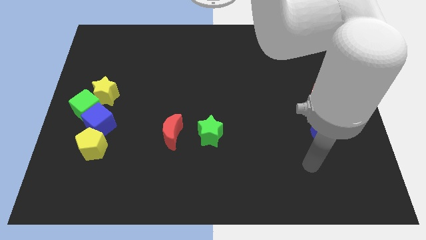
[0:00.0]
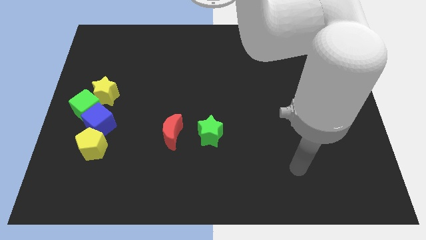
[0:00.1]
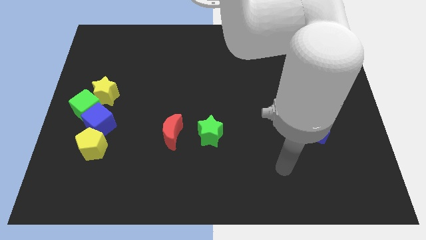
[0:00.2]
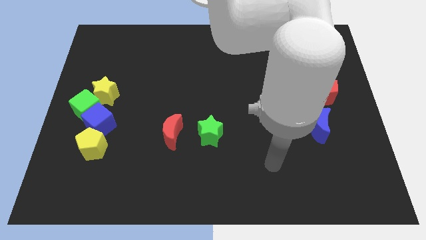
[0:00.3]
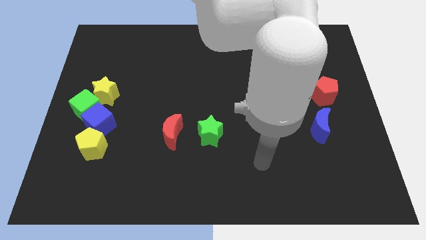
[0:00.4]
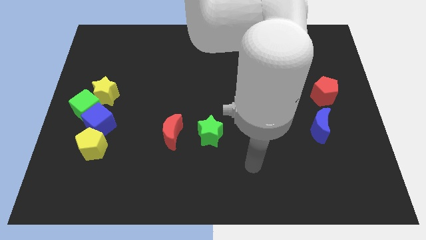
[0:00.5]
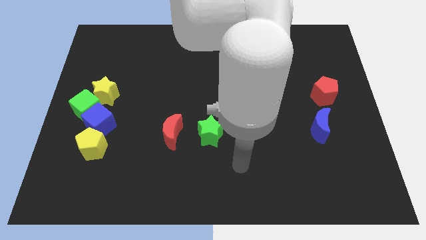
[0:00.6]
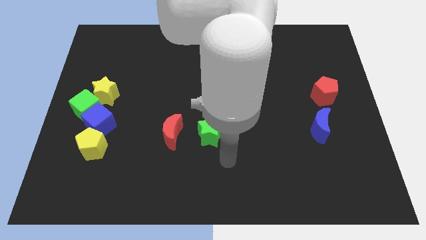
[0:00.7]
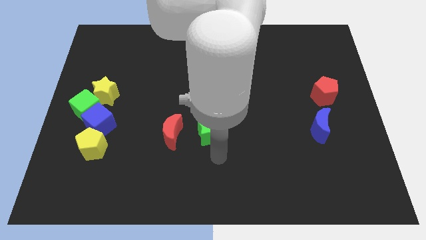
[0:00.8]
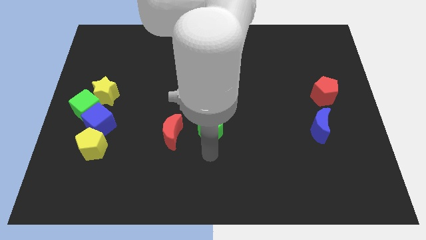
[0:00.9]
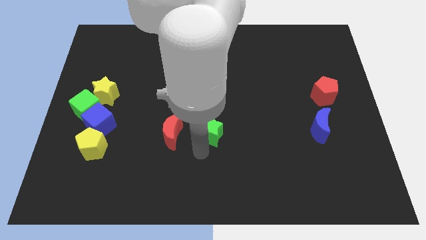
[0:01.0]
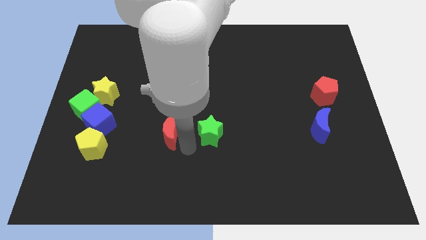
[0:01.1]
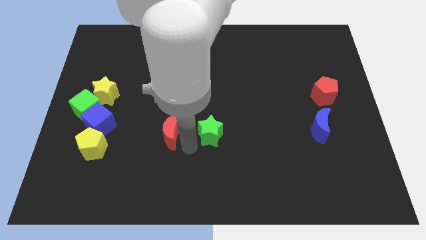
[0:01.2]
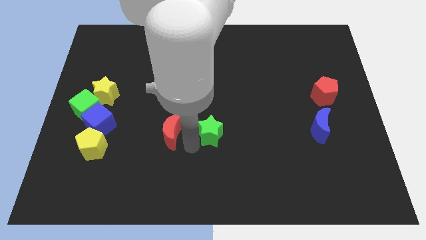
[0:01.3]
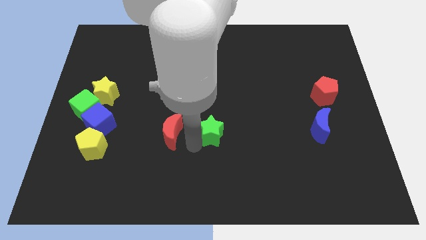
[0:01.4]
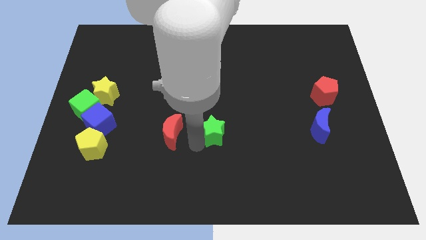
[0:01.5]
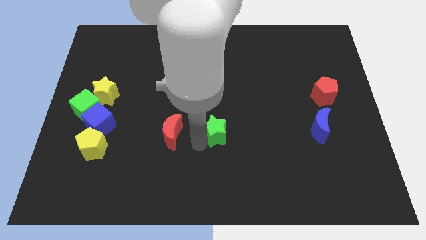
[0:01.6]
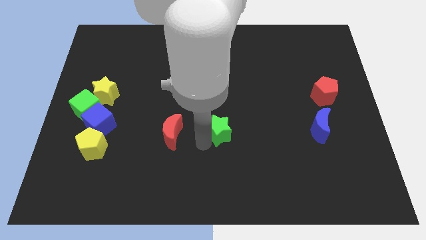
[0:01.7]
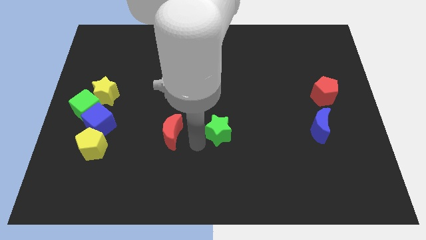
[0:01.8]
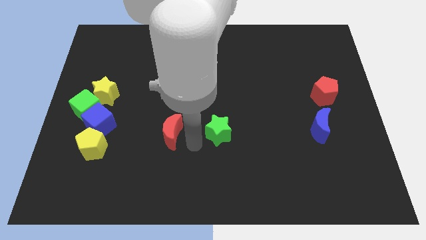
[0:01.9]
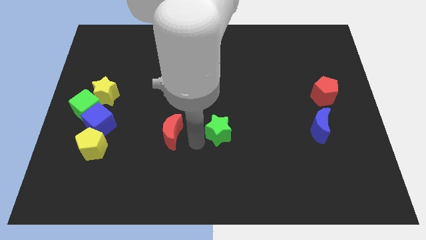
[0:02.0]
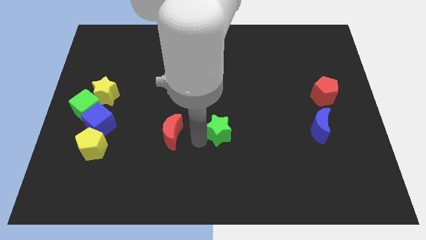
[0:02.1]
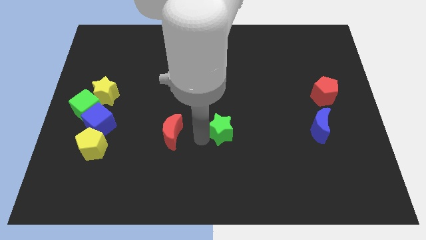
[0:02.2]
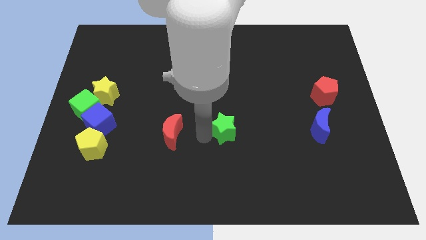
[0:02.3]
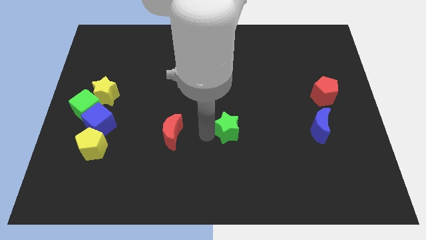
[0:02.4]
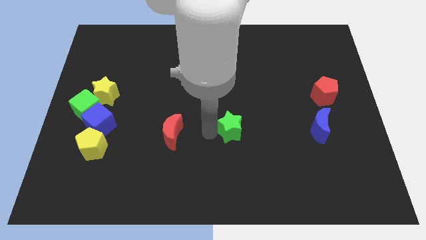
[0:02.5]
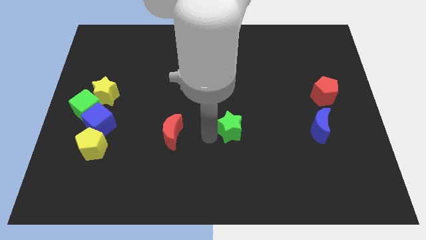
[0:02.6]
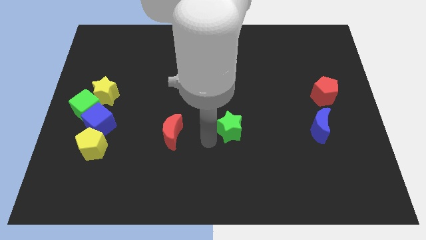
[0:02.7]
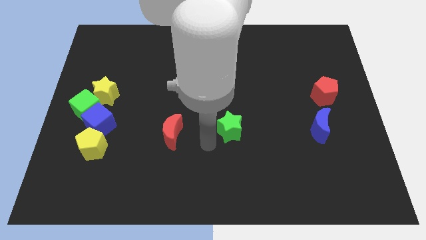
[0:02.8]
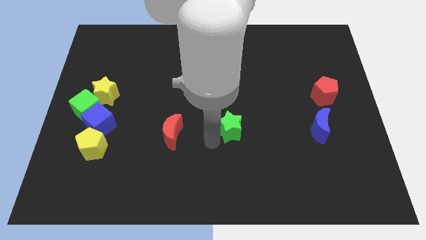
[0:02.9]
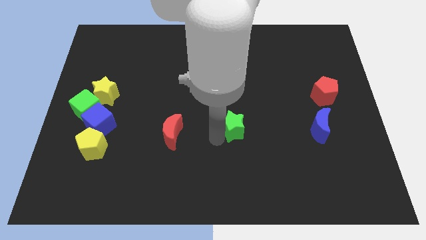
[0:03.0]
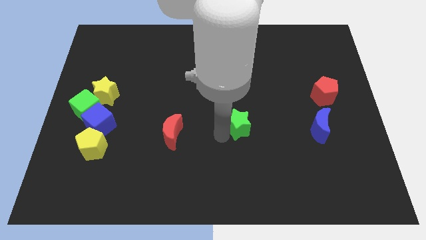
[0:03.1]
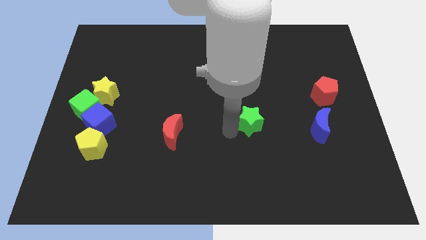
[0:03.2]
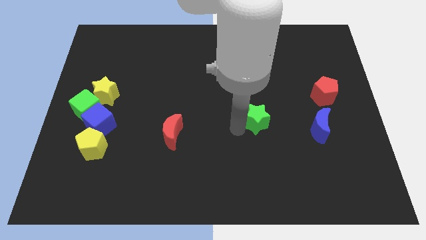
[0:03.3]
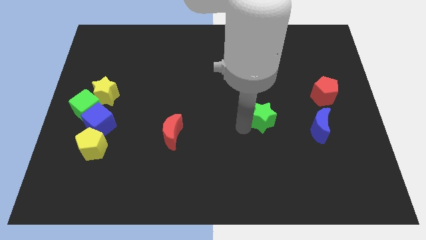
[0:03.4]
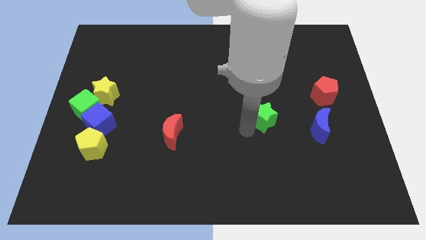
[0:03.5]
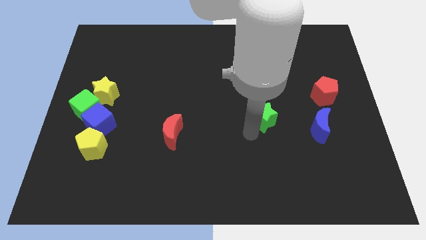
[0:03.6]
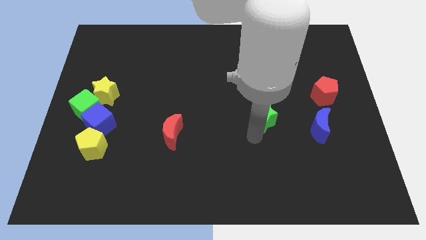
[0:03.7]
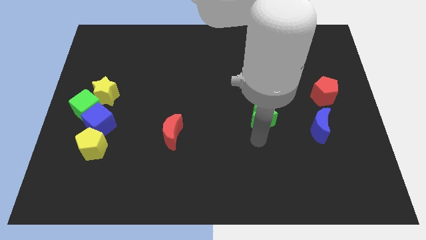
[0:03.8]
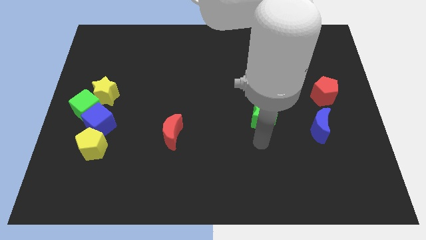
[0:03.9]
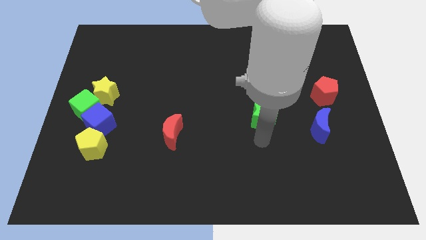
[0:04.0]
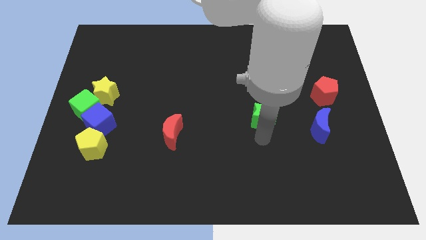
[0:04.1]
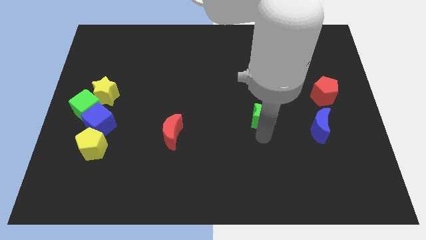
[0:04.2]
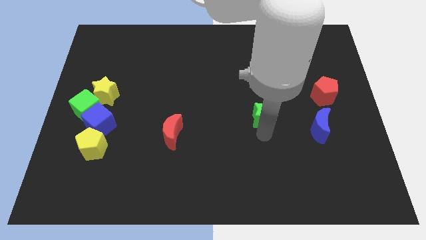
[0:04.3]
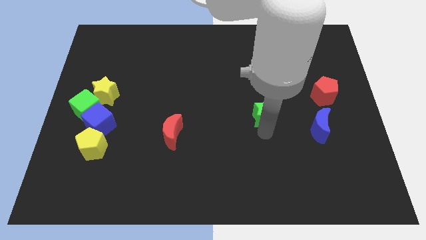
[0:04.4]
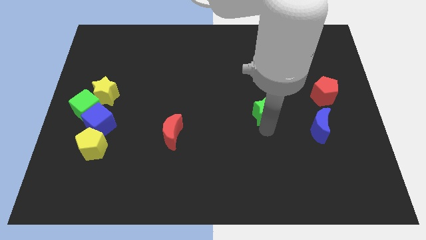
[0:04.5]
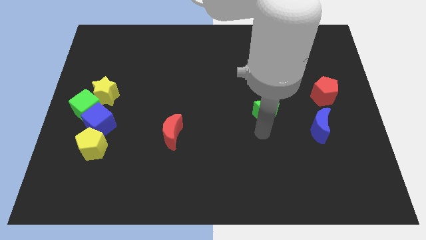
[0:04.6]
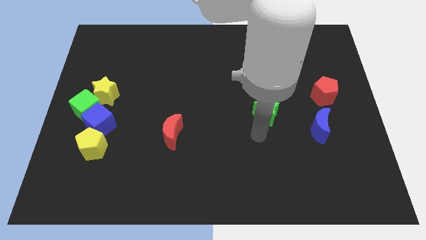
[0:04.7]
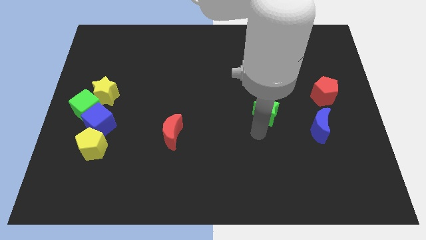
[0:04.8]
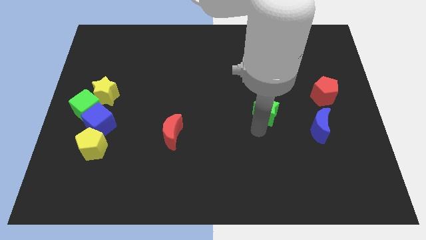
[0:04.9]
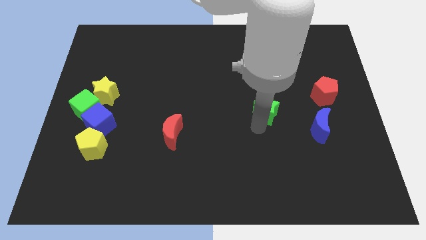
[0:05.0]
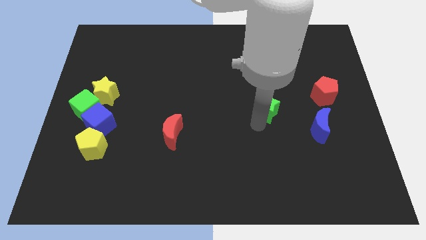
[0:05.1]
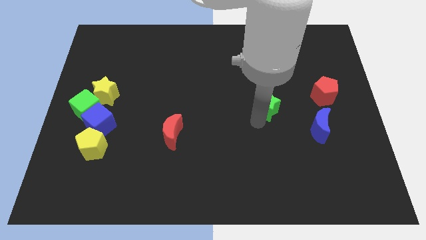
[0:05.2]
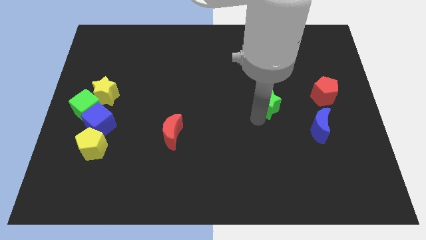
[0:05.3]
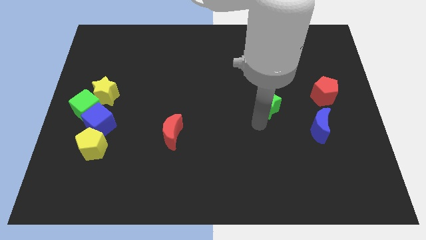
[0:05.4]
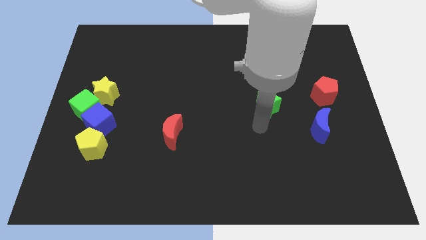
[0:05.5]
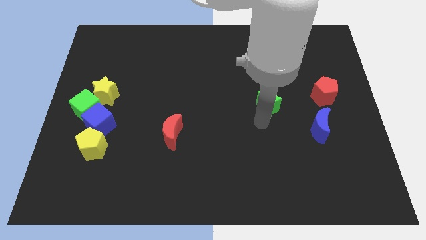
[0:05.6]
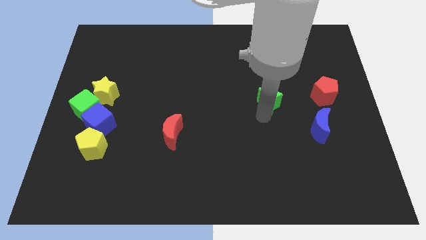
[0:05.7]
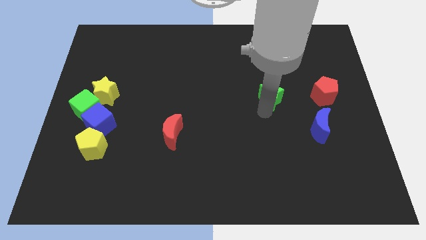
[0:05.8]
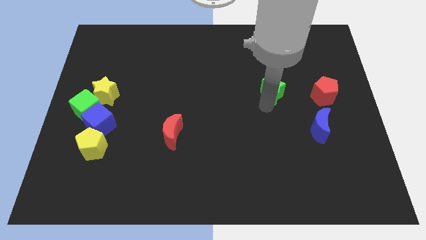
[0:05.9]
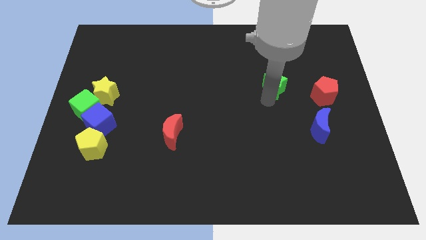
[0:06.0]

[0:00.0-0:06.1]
move the green star upwards and then to the right

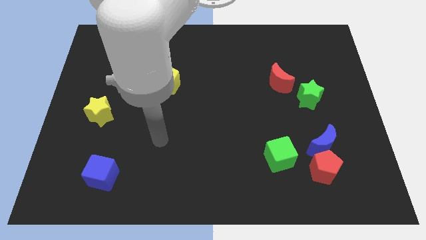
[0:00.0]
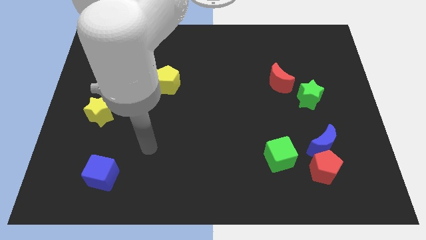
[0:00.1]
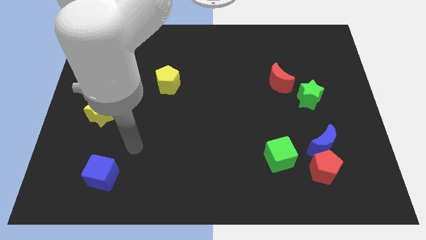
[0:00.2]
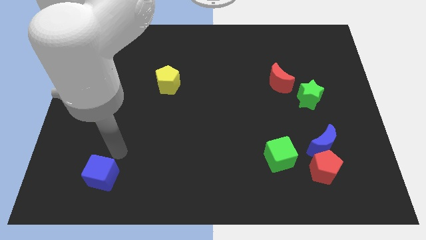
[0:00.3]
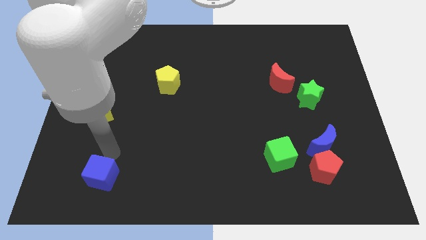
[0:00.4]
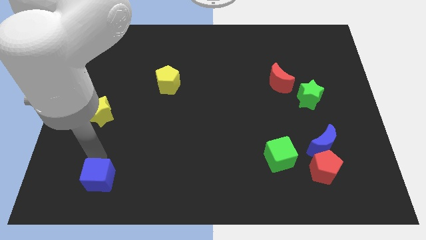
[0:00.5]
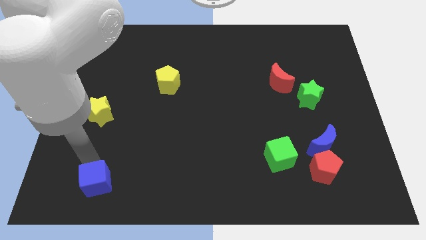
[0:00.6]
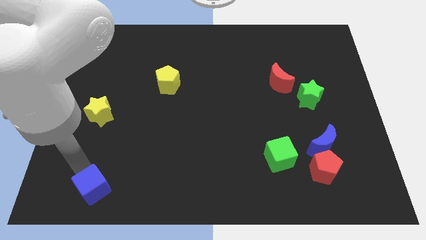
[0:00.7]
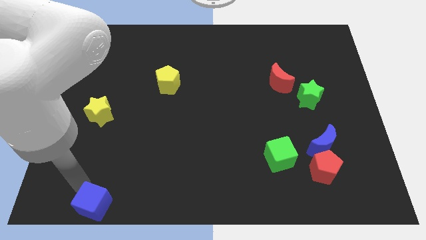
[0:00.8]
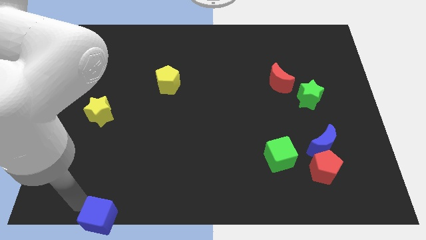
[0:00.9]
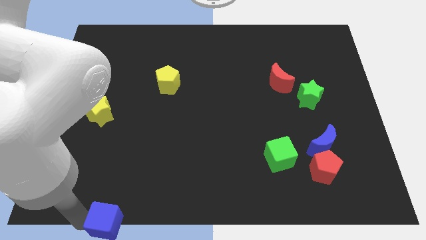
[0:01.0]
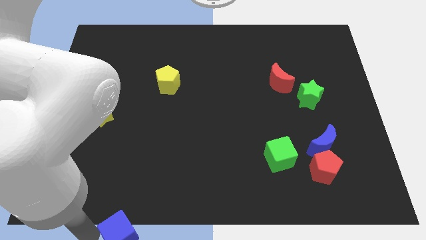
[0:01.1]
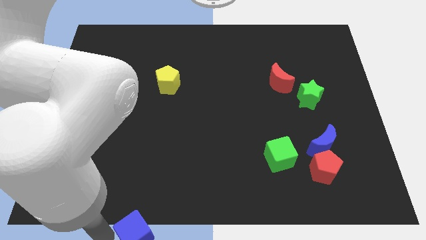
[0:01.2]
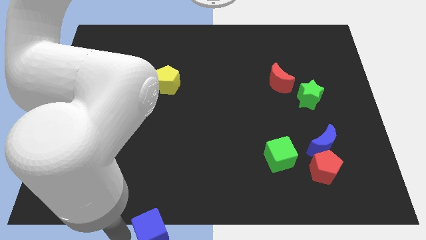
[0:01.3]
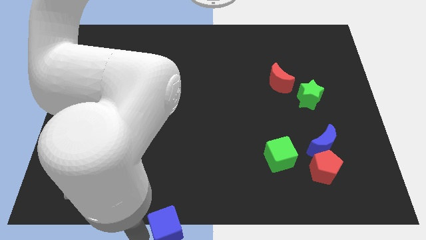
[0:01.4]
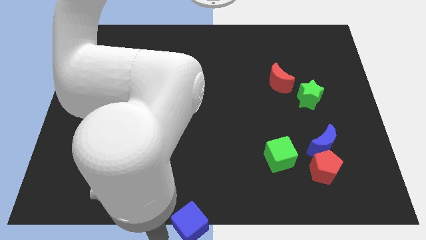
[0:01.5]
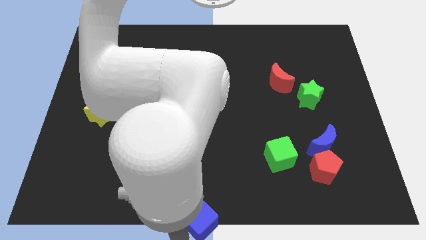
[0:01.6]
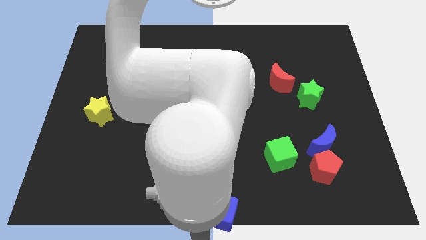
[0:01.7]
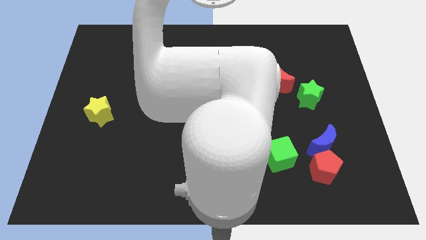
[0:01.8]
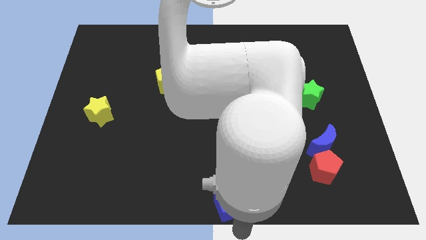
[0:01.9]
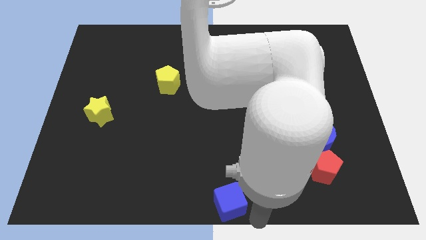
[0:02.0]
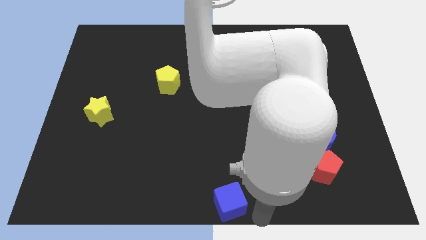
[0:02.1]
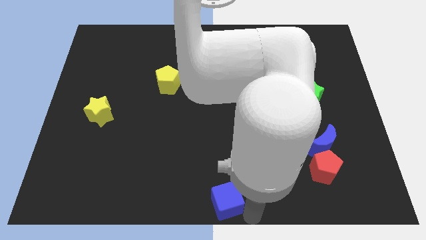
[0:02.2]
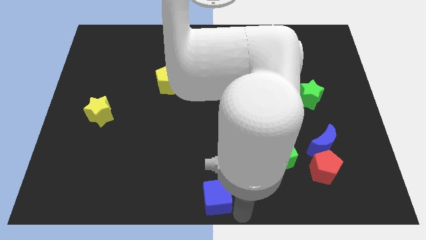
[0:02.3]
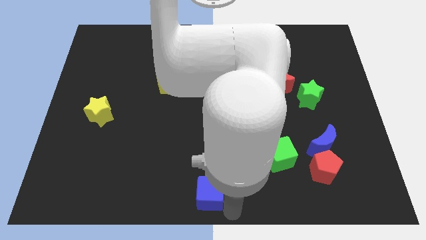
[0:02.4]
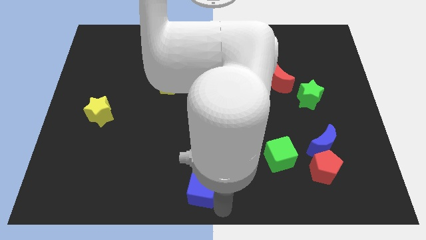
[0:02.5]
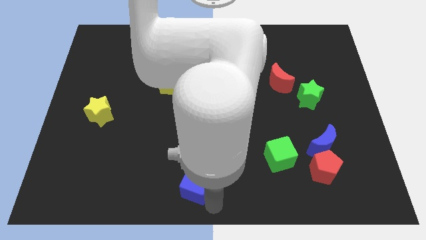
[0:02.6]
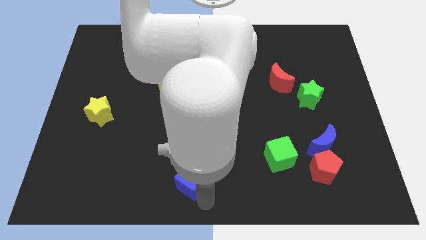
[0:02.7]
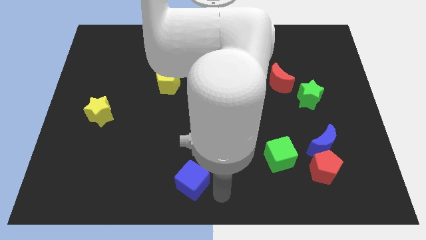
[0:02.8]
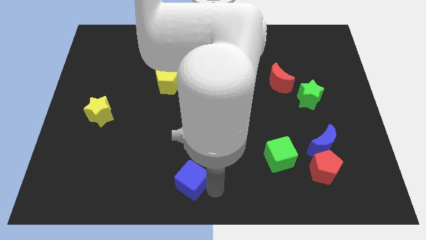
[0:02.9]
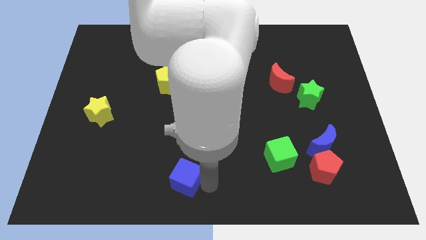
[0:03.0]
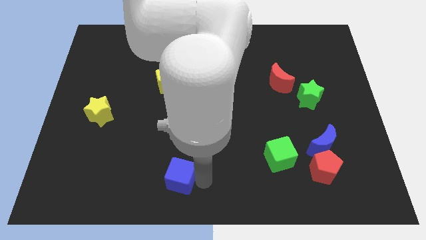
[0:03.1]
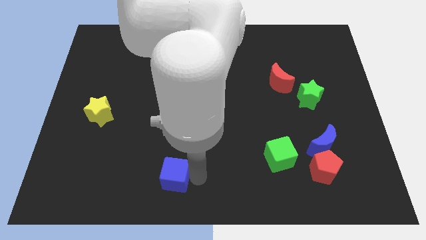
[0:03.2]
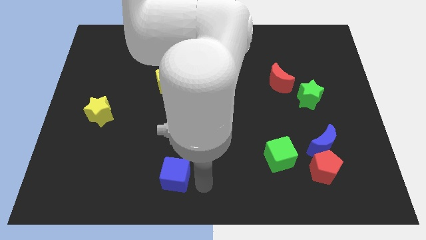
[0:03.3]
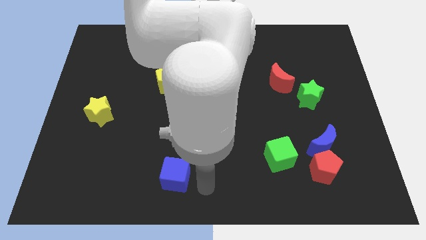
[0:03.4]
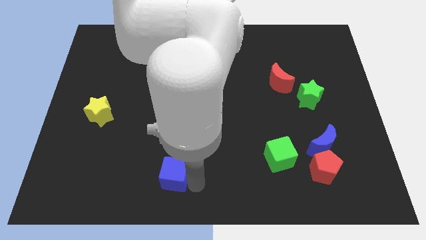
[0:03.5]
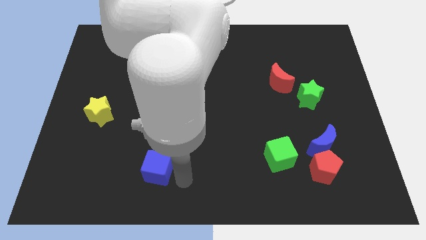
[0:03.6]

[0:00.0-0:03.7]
move the blue cube diagonally upwards and to the right somewhat
